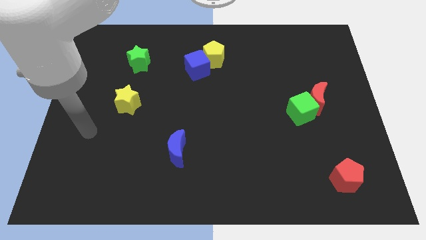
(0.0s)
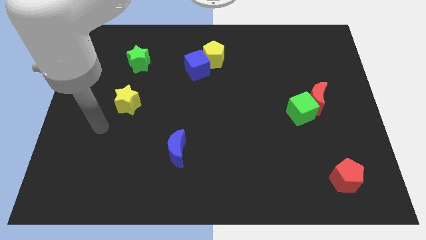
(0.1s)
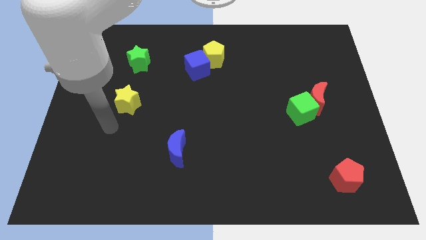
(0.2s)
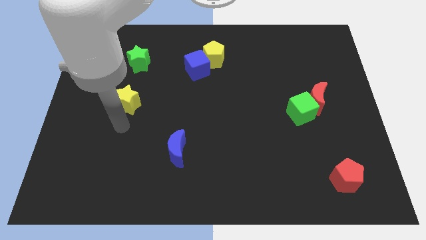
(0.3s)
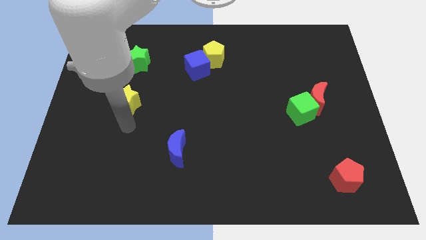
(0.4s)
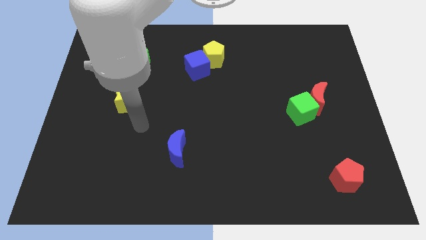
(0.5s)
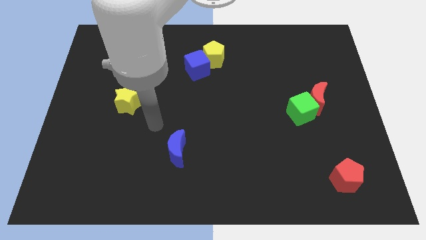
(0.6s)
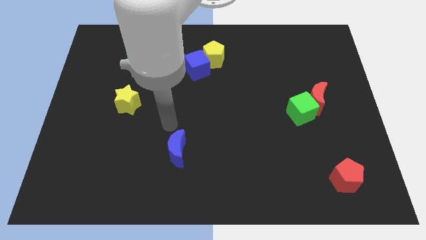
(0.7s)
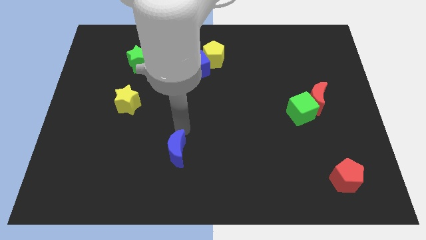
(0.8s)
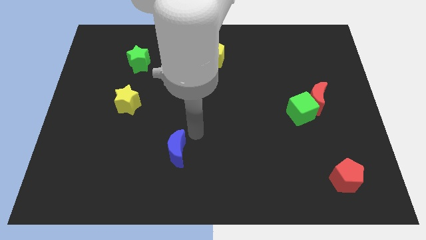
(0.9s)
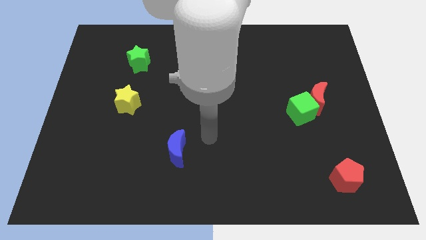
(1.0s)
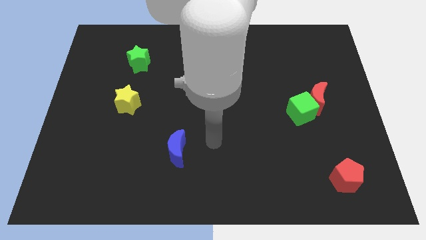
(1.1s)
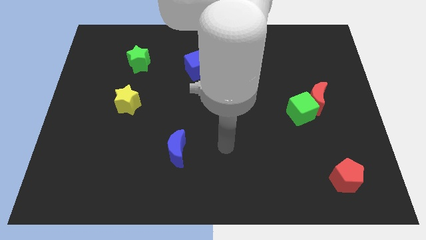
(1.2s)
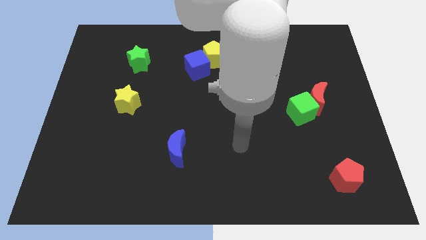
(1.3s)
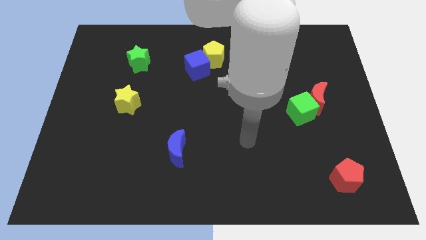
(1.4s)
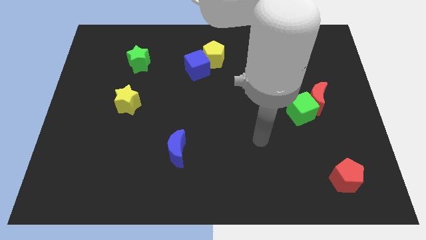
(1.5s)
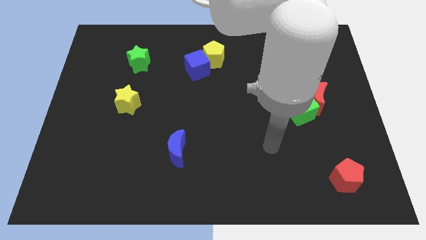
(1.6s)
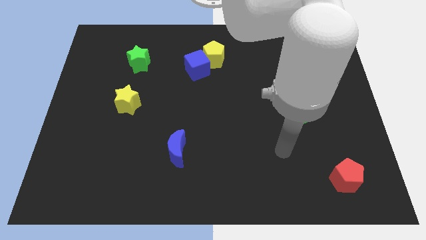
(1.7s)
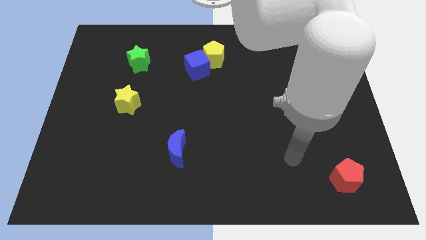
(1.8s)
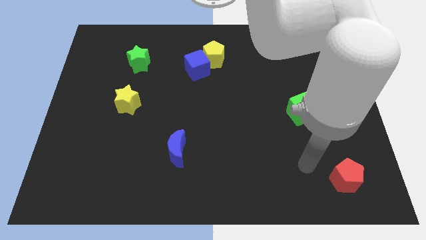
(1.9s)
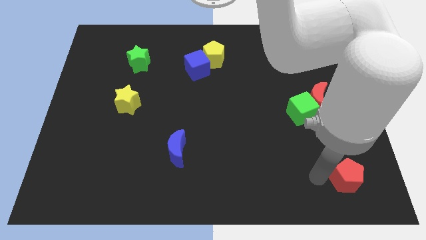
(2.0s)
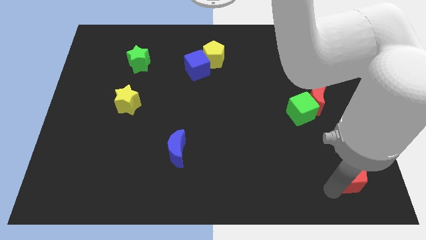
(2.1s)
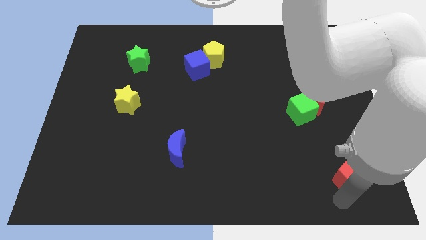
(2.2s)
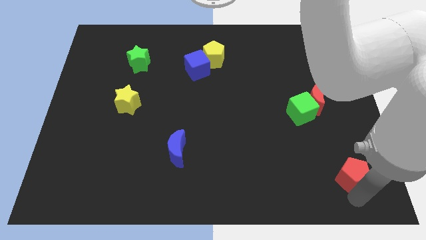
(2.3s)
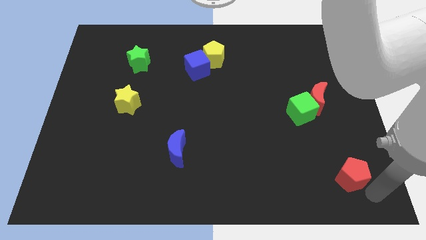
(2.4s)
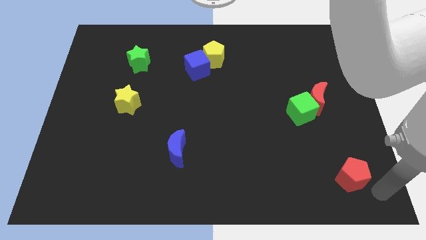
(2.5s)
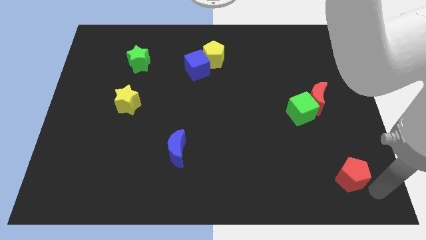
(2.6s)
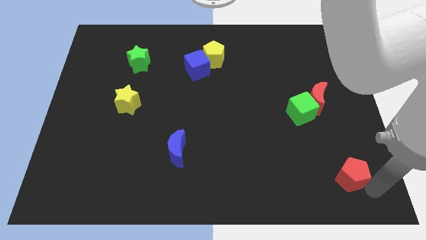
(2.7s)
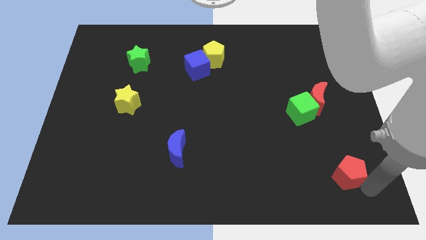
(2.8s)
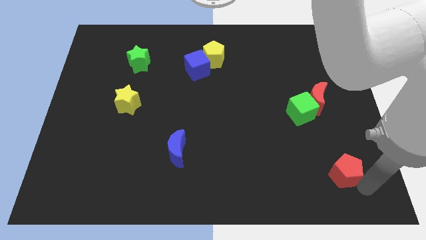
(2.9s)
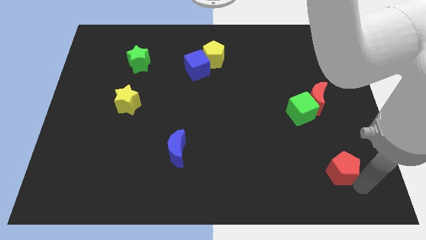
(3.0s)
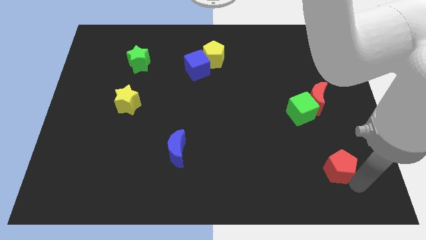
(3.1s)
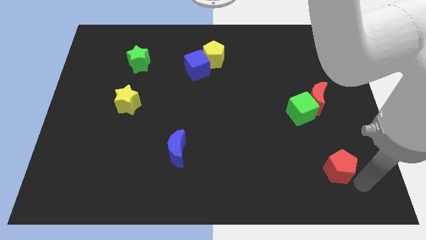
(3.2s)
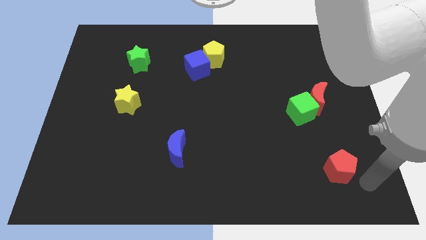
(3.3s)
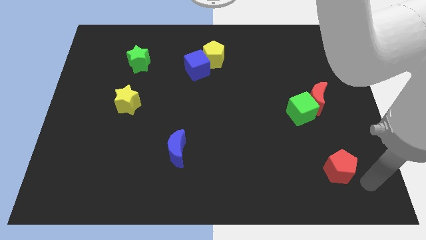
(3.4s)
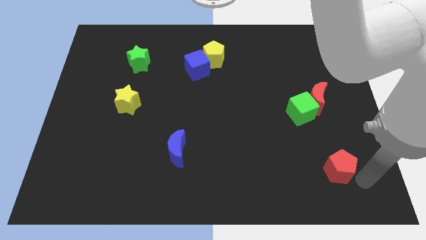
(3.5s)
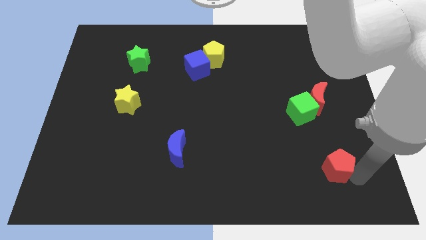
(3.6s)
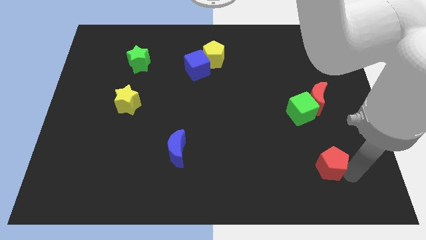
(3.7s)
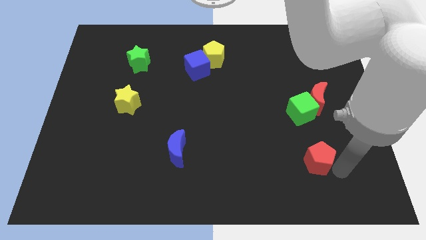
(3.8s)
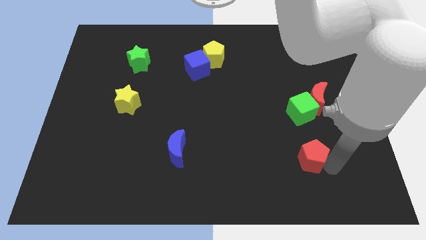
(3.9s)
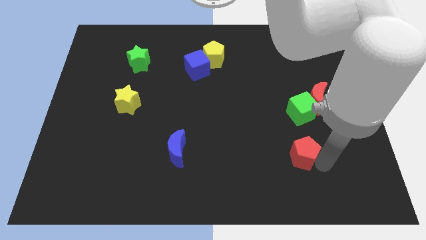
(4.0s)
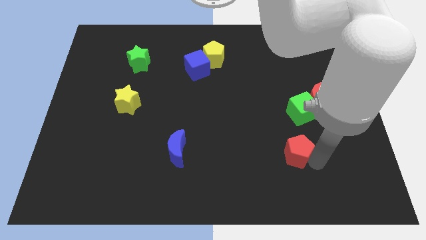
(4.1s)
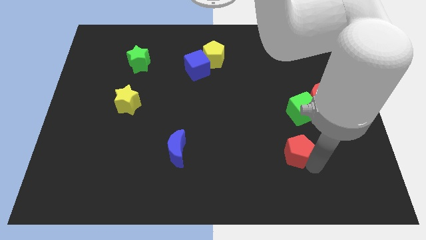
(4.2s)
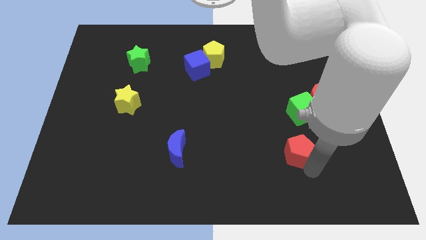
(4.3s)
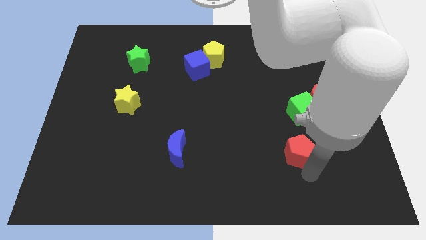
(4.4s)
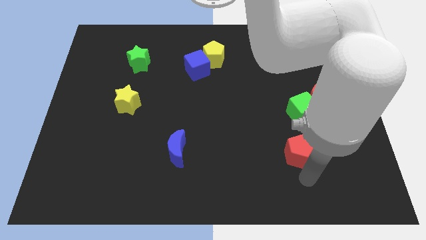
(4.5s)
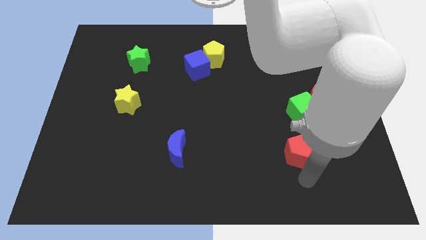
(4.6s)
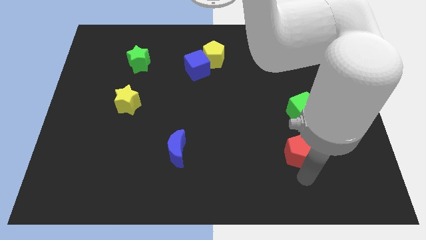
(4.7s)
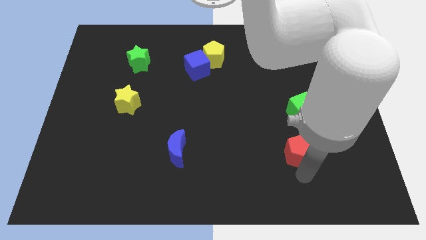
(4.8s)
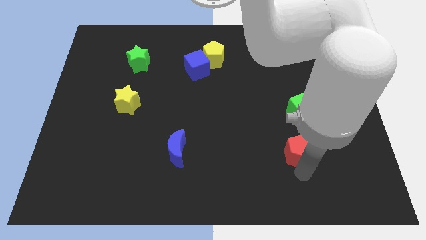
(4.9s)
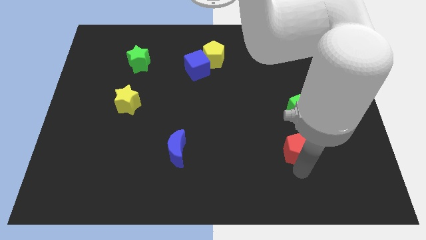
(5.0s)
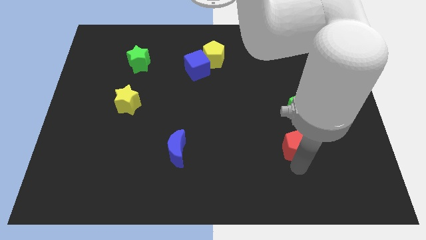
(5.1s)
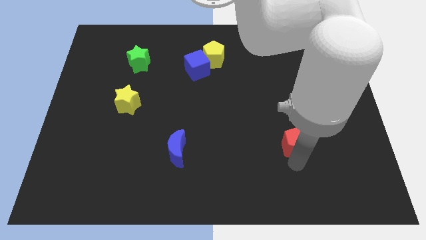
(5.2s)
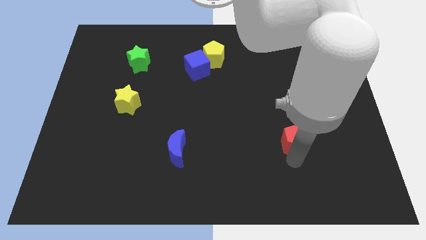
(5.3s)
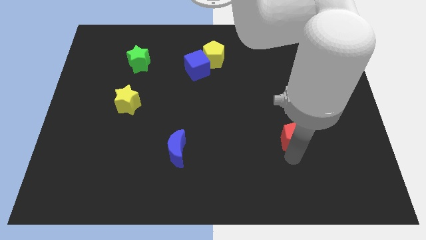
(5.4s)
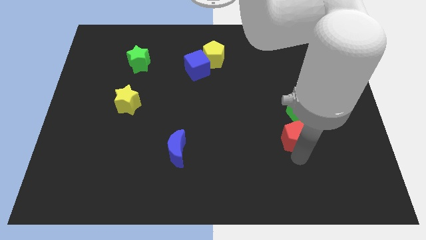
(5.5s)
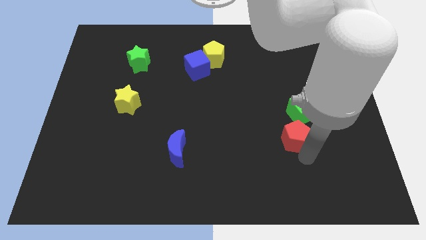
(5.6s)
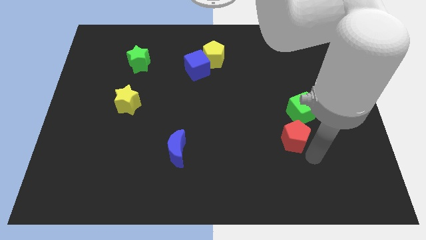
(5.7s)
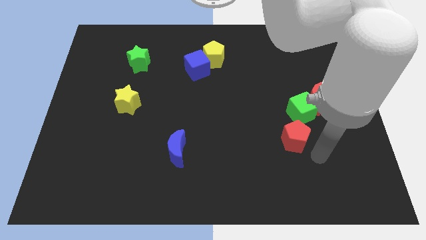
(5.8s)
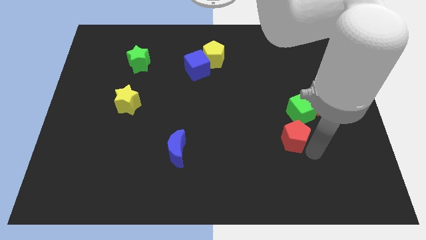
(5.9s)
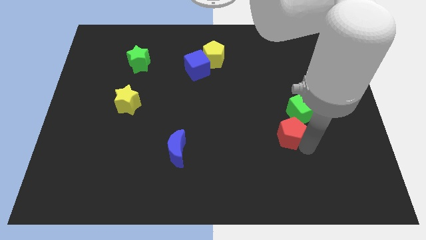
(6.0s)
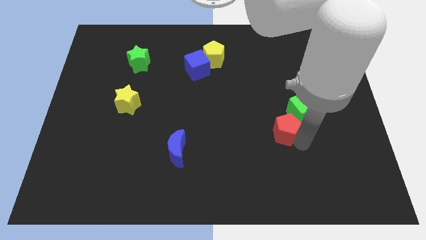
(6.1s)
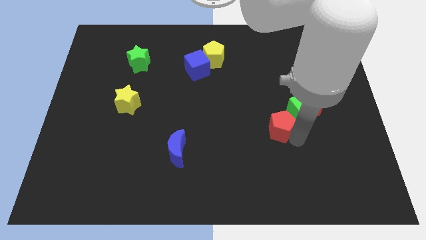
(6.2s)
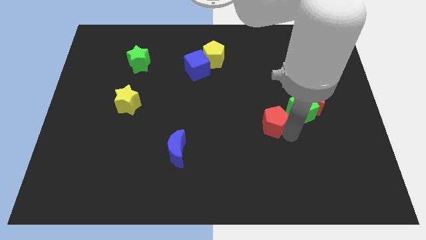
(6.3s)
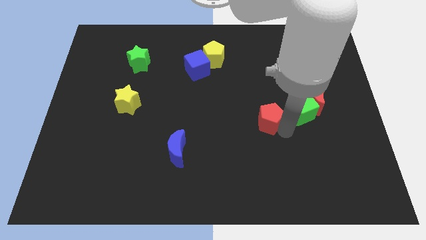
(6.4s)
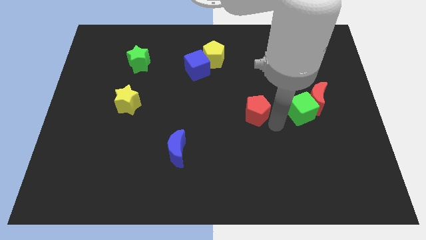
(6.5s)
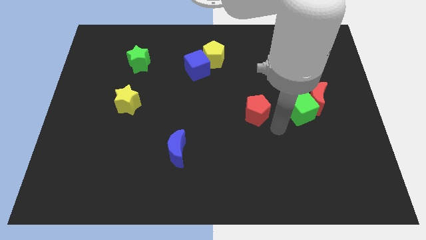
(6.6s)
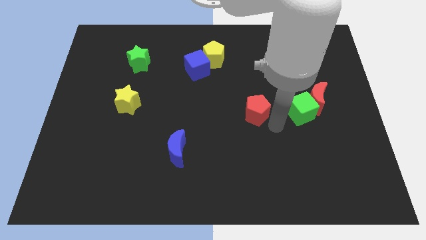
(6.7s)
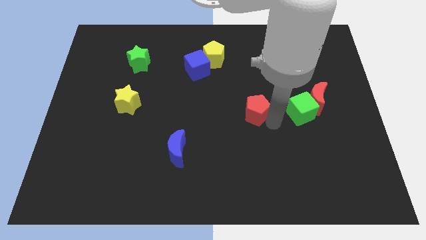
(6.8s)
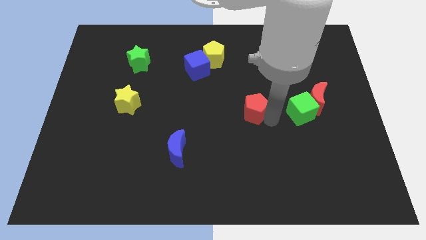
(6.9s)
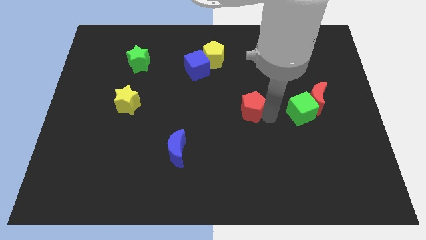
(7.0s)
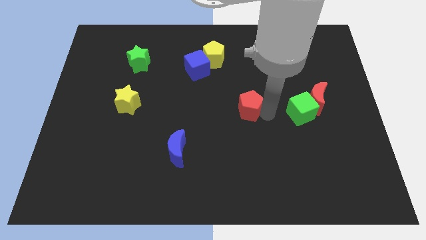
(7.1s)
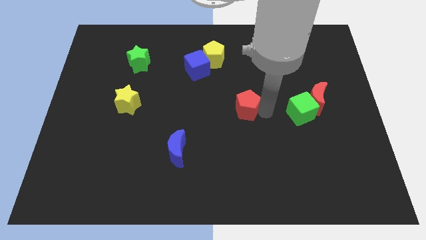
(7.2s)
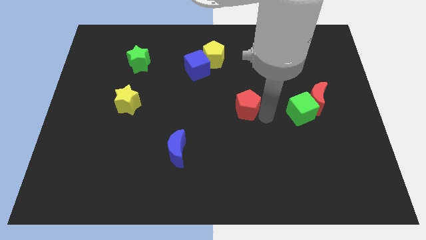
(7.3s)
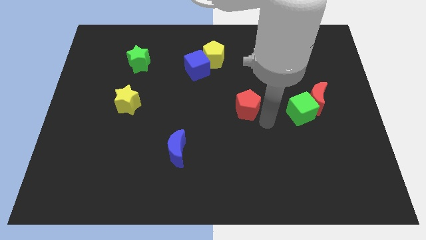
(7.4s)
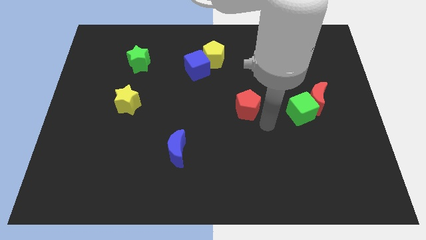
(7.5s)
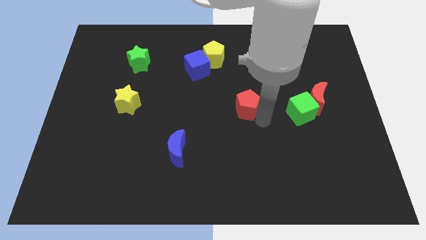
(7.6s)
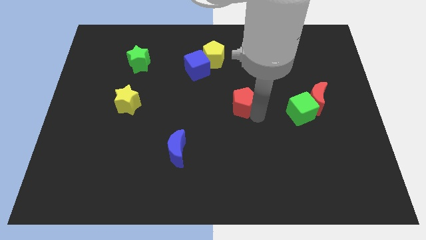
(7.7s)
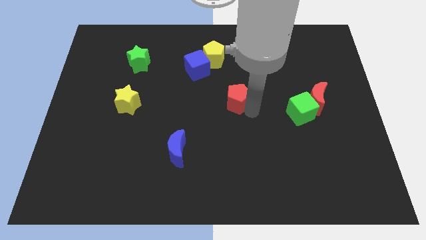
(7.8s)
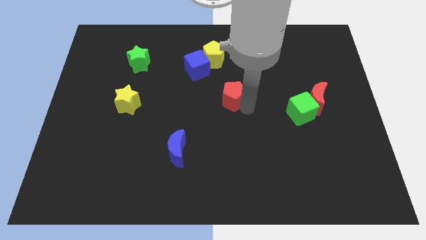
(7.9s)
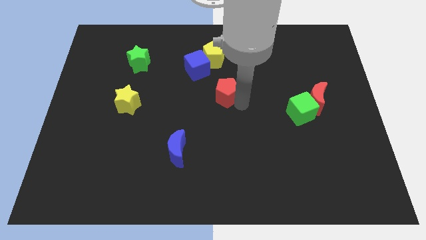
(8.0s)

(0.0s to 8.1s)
slide the red pentagon to the bottom right of the blue cube
